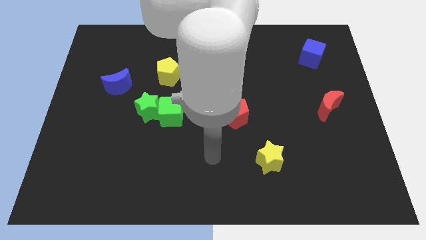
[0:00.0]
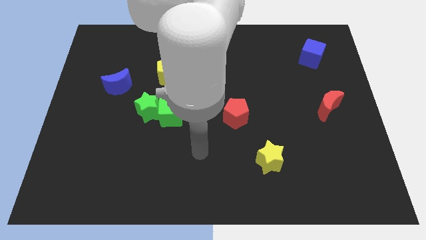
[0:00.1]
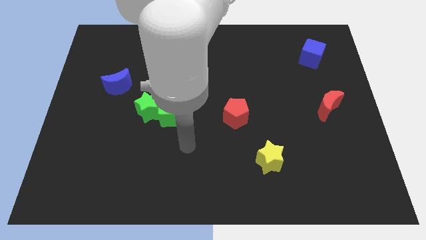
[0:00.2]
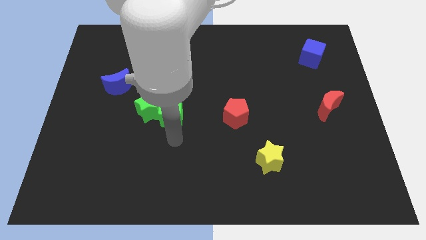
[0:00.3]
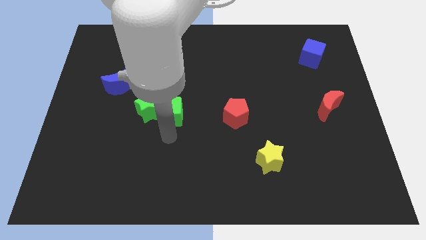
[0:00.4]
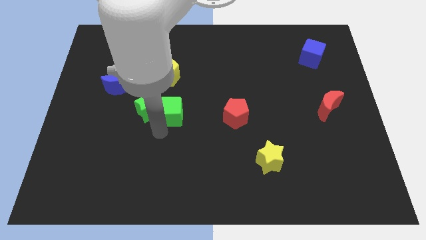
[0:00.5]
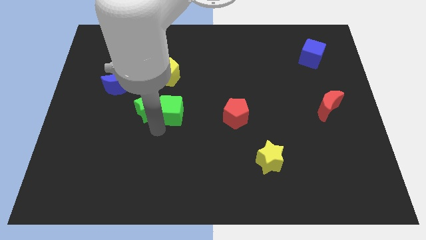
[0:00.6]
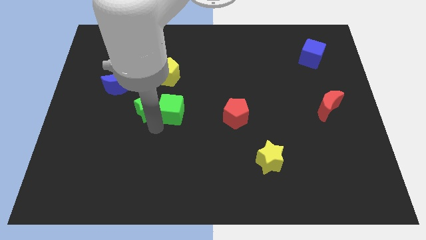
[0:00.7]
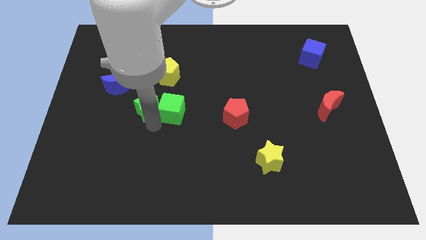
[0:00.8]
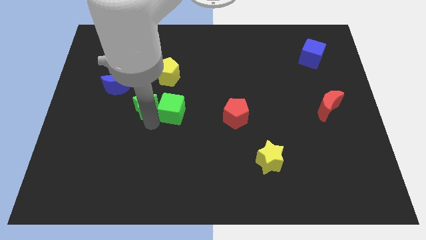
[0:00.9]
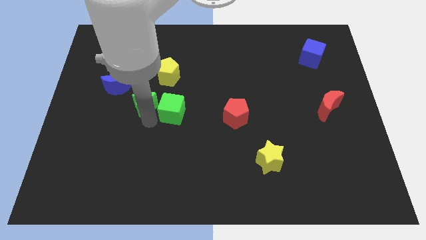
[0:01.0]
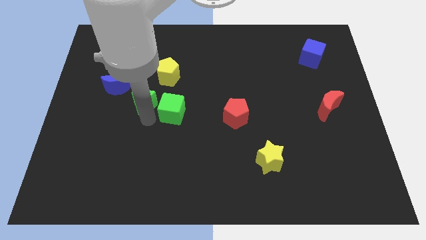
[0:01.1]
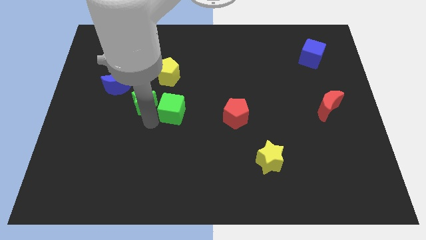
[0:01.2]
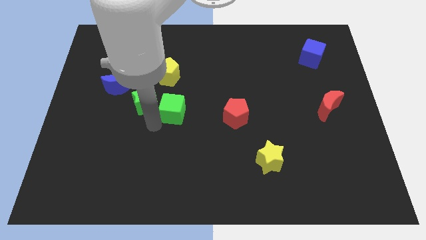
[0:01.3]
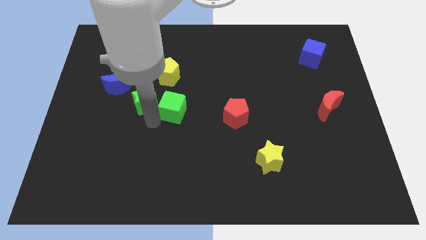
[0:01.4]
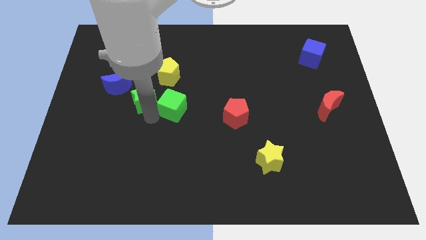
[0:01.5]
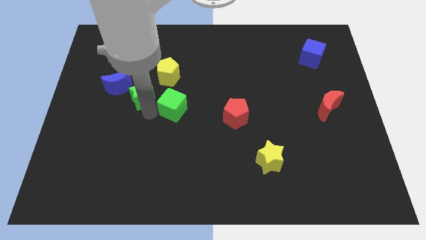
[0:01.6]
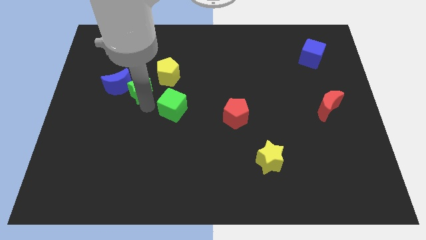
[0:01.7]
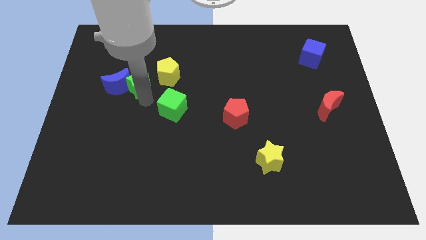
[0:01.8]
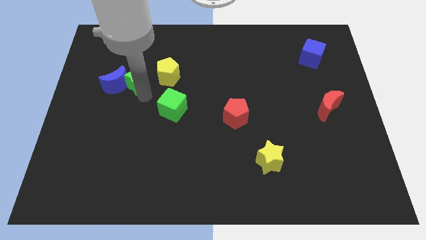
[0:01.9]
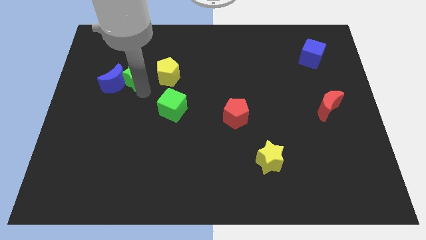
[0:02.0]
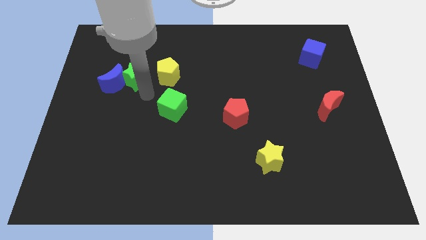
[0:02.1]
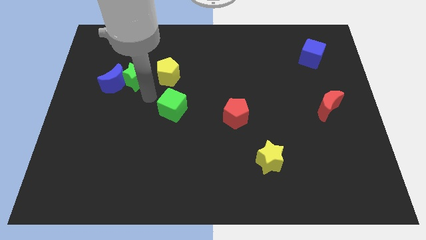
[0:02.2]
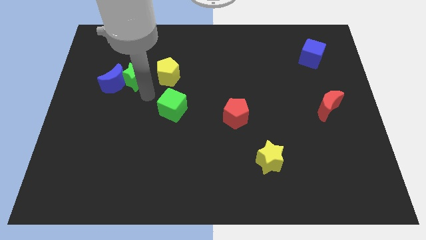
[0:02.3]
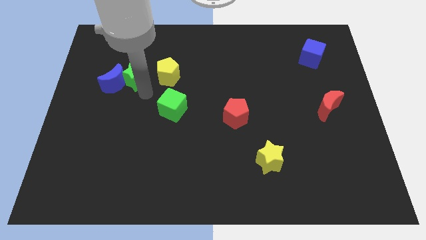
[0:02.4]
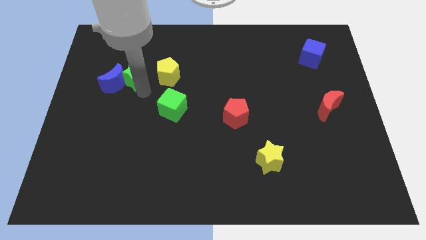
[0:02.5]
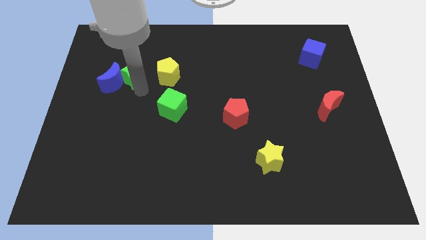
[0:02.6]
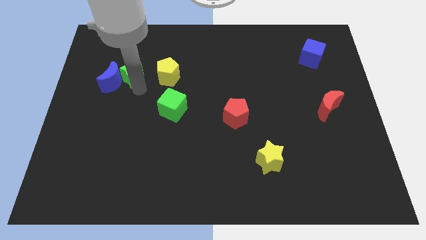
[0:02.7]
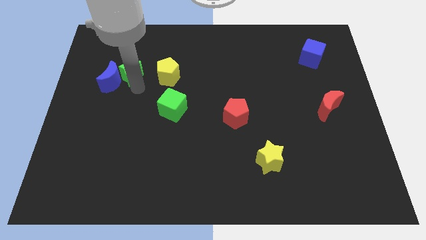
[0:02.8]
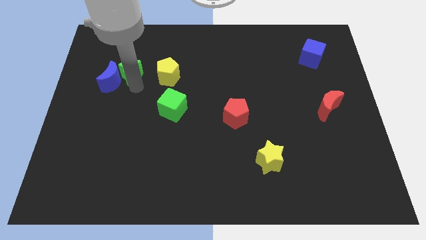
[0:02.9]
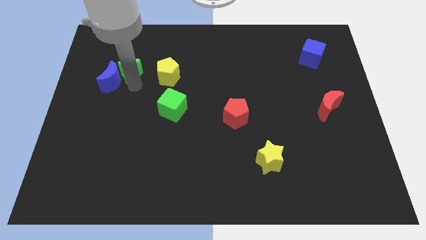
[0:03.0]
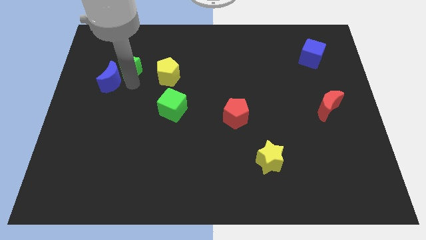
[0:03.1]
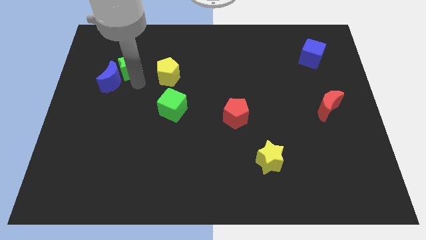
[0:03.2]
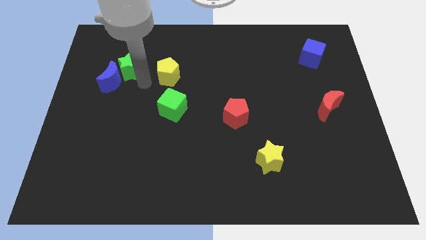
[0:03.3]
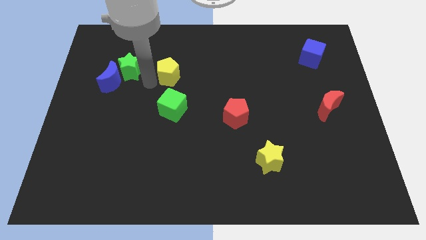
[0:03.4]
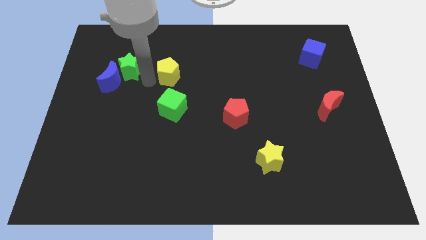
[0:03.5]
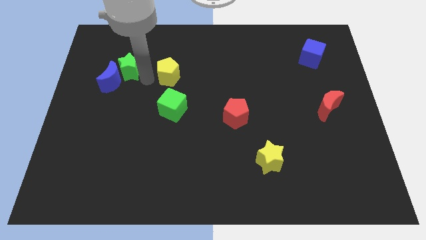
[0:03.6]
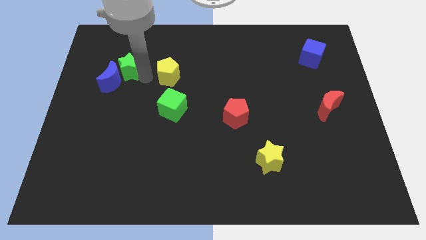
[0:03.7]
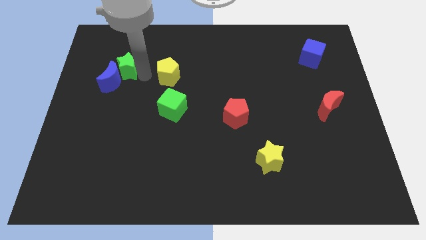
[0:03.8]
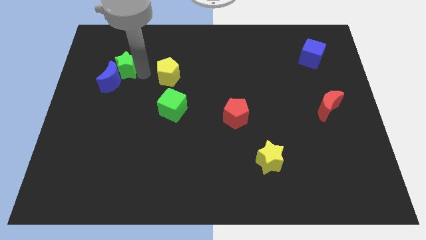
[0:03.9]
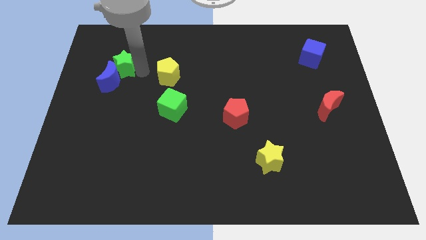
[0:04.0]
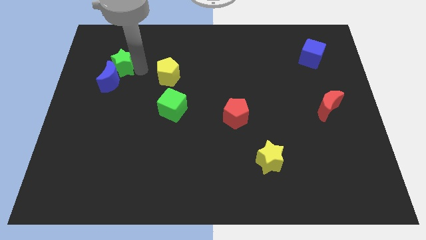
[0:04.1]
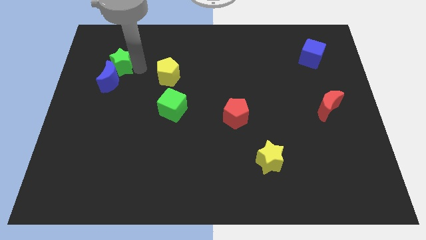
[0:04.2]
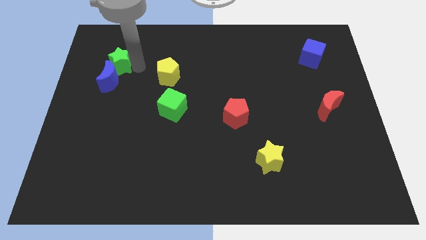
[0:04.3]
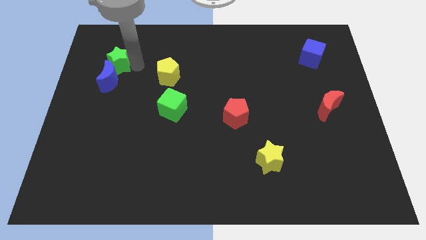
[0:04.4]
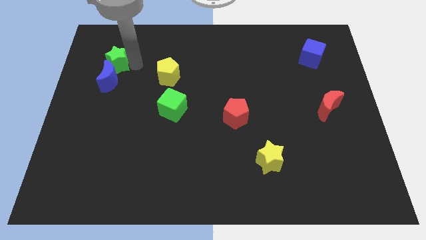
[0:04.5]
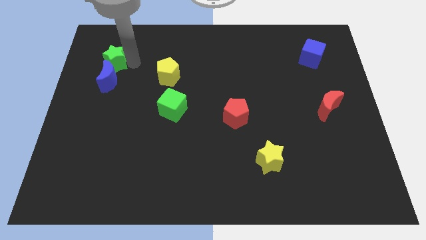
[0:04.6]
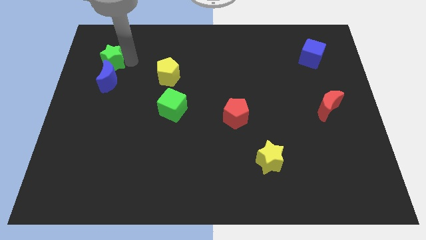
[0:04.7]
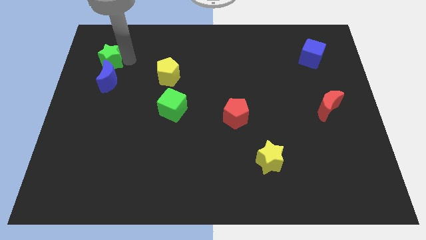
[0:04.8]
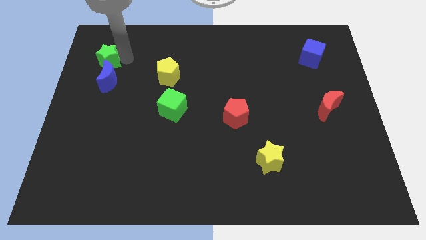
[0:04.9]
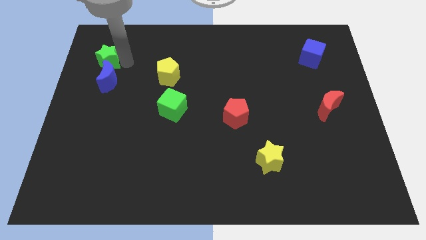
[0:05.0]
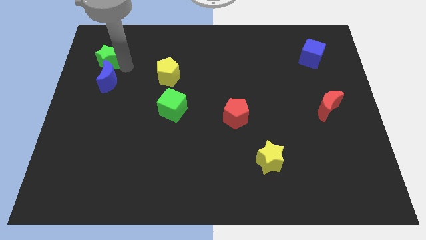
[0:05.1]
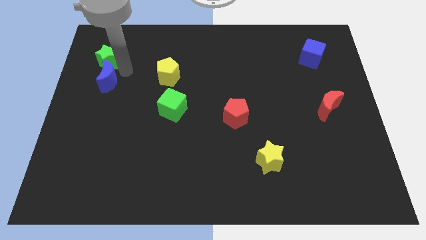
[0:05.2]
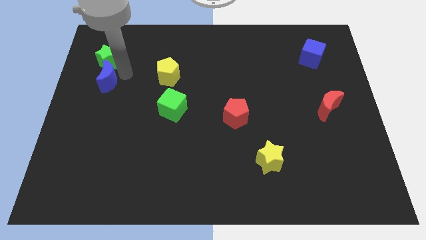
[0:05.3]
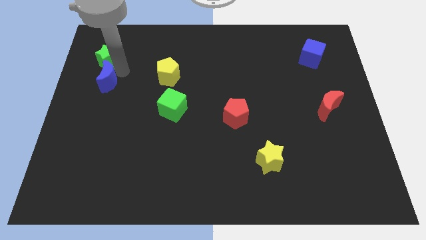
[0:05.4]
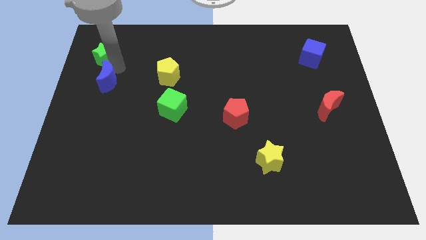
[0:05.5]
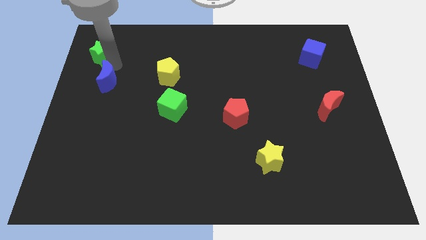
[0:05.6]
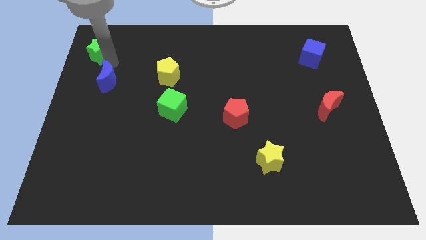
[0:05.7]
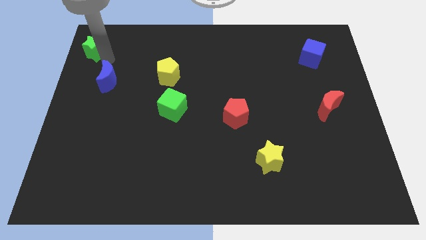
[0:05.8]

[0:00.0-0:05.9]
slide the green star to the top left corner

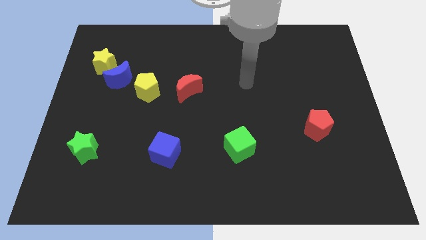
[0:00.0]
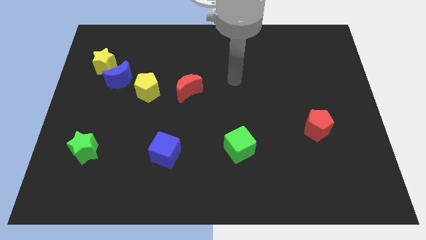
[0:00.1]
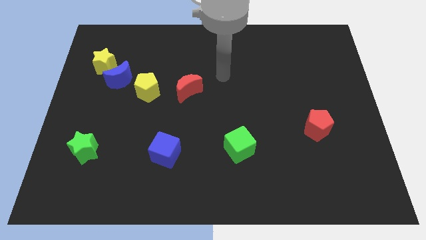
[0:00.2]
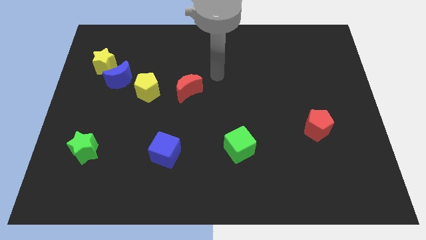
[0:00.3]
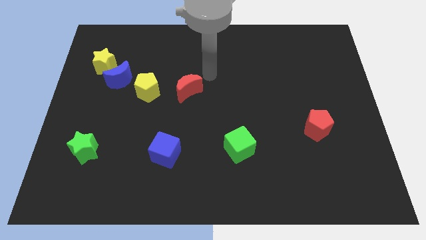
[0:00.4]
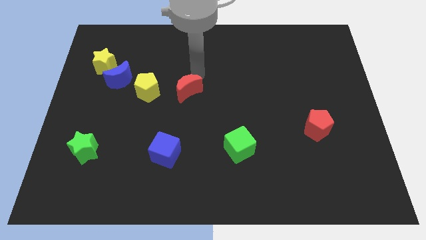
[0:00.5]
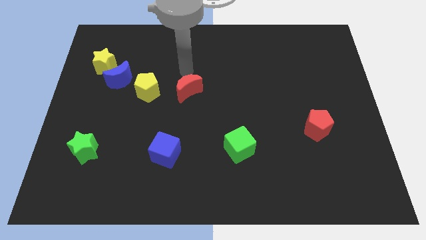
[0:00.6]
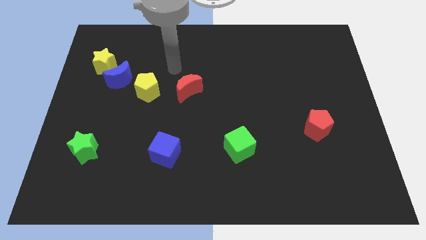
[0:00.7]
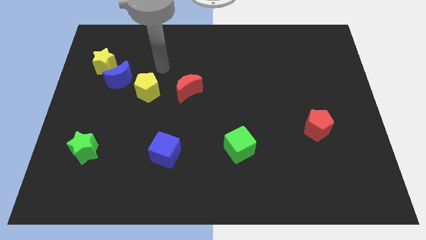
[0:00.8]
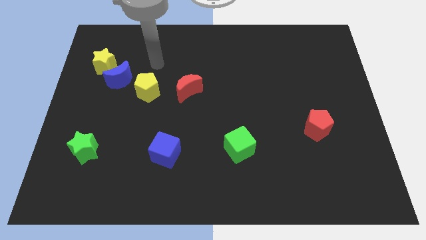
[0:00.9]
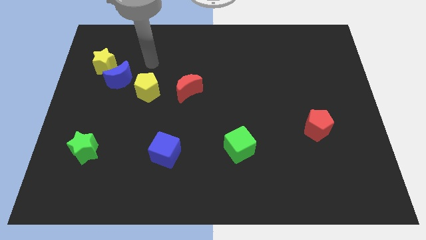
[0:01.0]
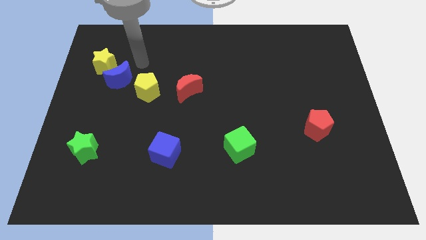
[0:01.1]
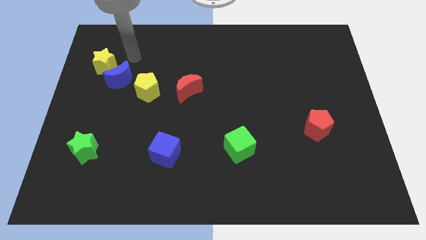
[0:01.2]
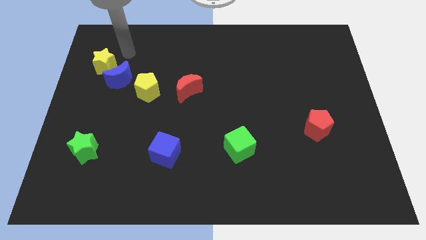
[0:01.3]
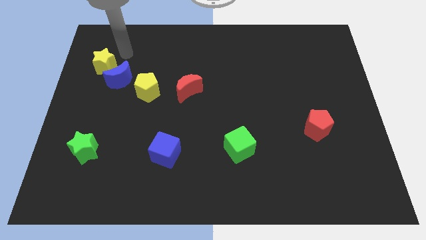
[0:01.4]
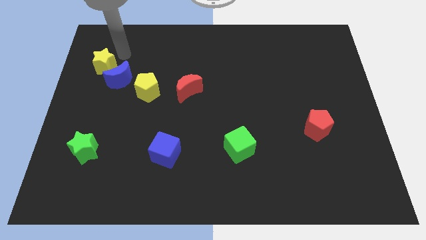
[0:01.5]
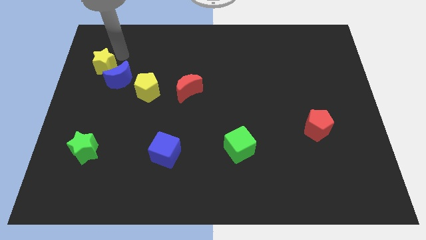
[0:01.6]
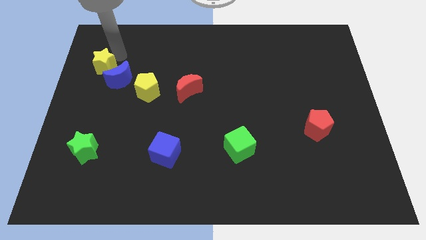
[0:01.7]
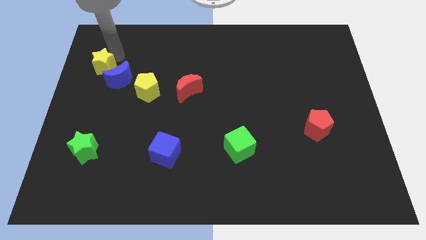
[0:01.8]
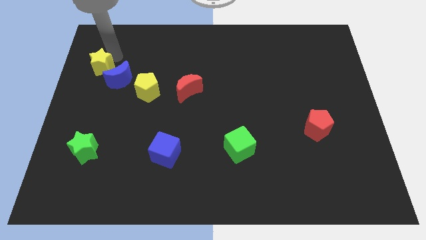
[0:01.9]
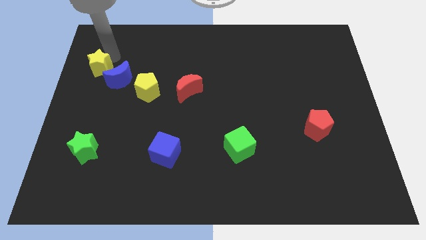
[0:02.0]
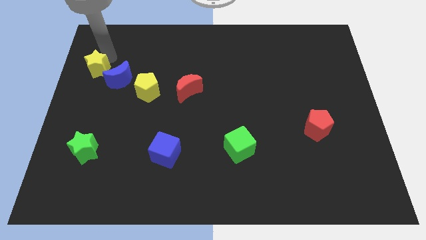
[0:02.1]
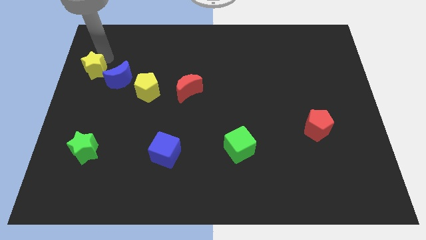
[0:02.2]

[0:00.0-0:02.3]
put the yellow star to the center left
